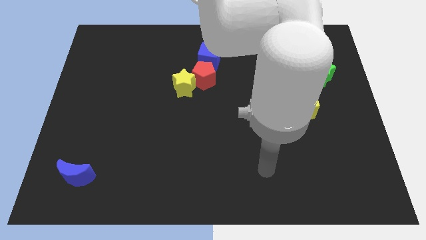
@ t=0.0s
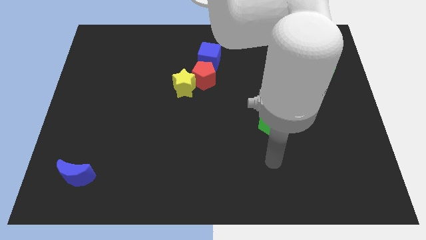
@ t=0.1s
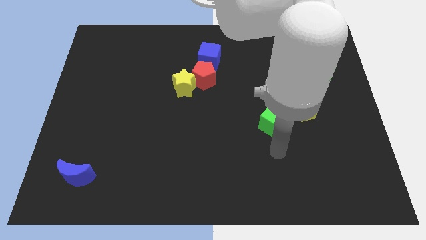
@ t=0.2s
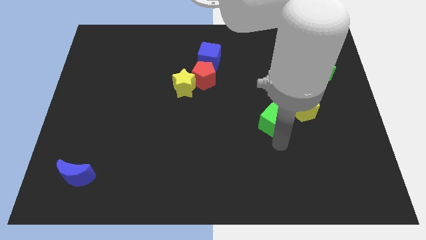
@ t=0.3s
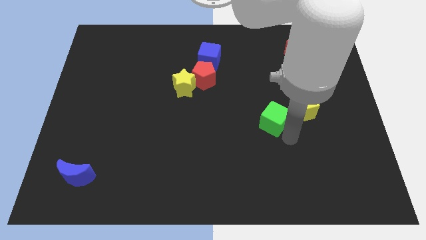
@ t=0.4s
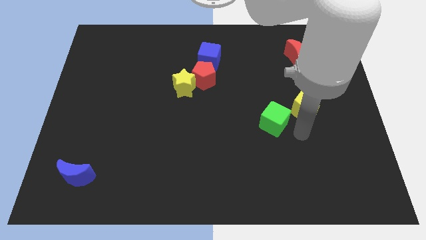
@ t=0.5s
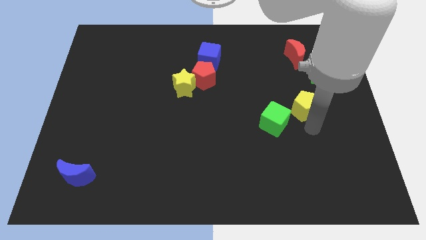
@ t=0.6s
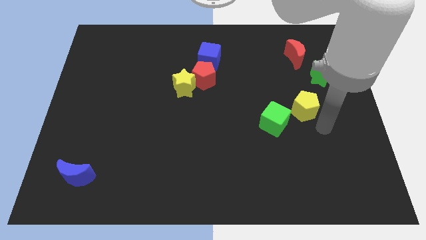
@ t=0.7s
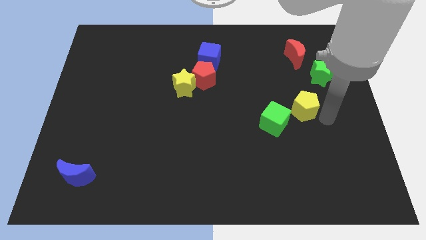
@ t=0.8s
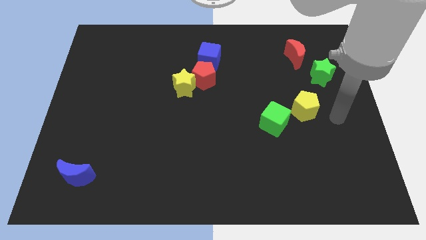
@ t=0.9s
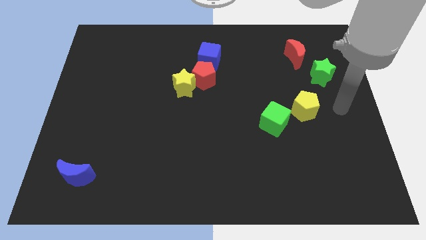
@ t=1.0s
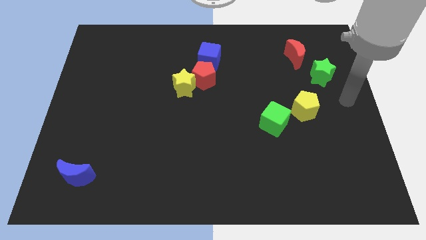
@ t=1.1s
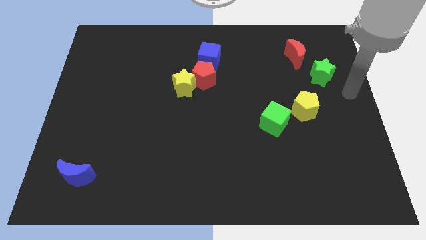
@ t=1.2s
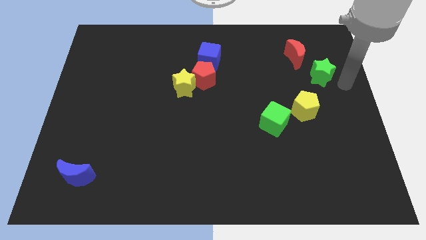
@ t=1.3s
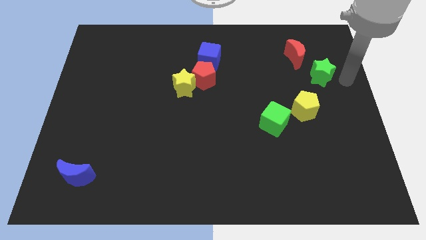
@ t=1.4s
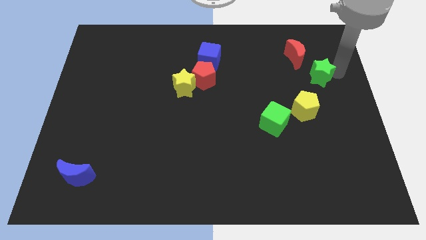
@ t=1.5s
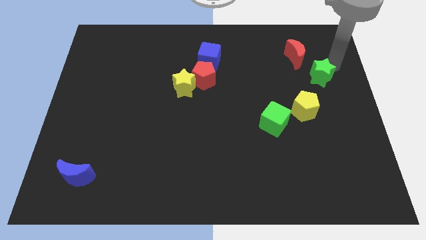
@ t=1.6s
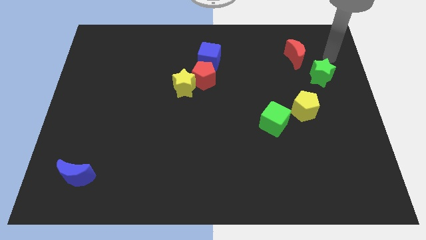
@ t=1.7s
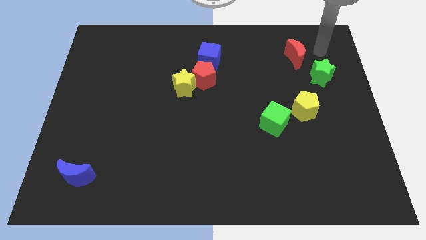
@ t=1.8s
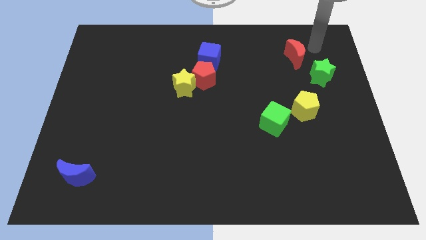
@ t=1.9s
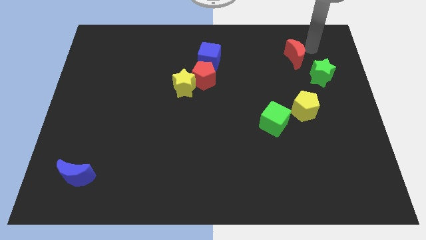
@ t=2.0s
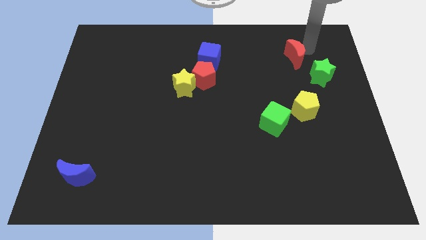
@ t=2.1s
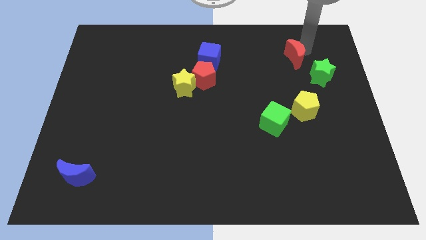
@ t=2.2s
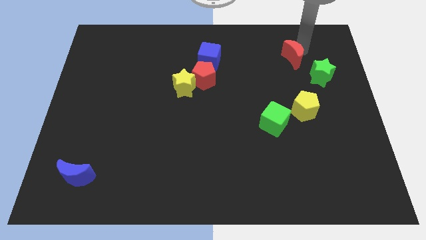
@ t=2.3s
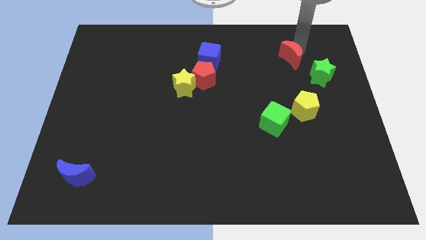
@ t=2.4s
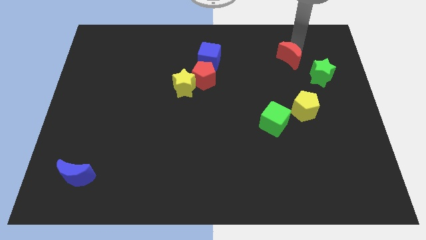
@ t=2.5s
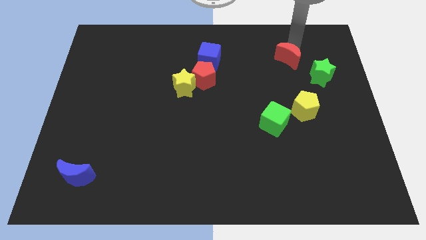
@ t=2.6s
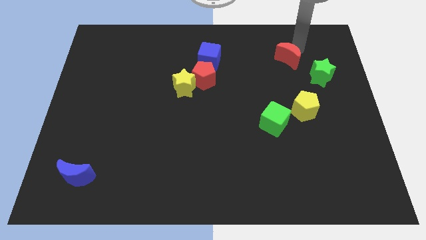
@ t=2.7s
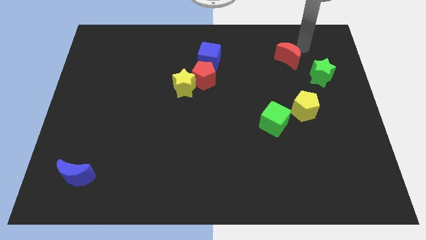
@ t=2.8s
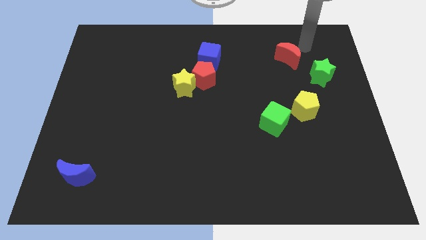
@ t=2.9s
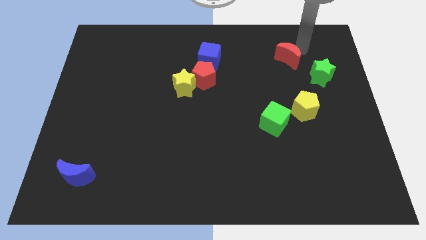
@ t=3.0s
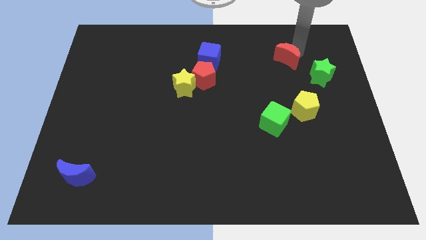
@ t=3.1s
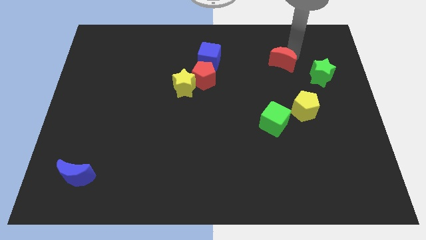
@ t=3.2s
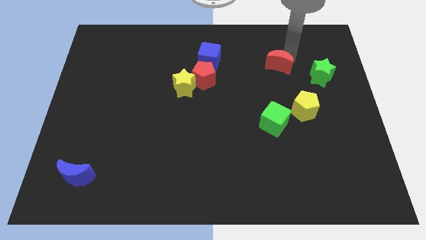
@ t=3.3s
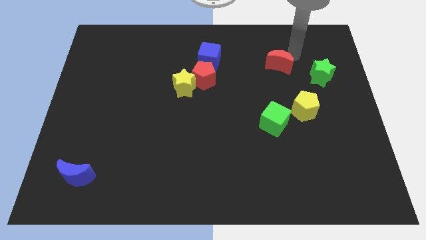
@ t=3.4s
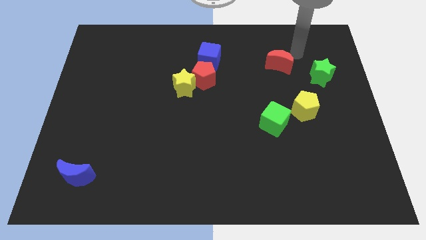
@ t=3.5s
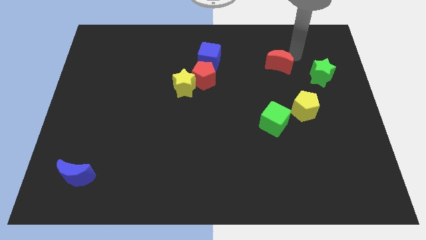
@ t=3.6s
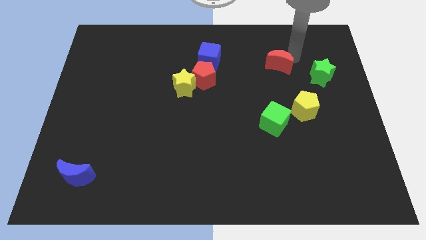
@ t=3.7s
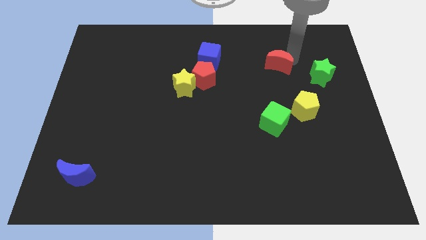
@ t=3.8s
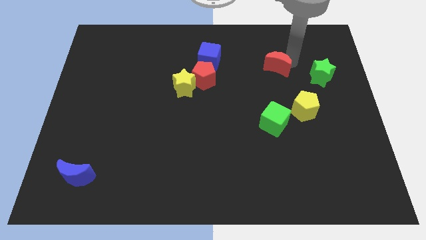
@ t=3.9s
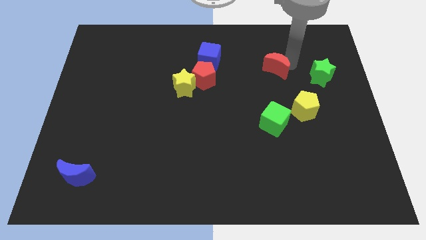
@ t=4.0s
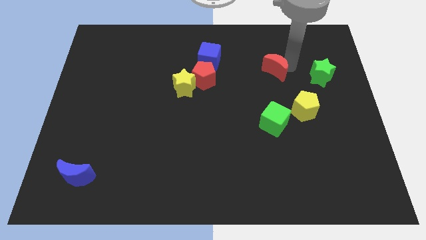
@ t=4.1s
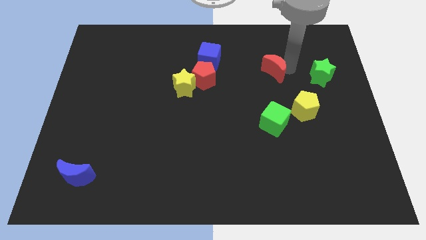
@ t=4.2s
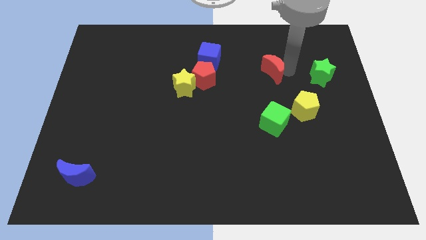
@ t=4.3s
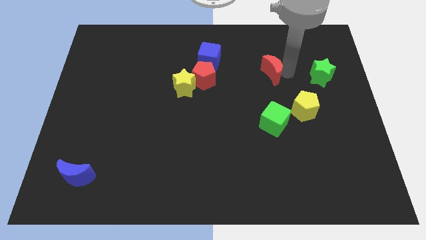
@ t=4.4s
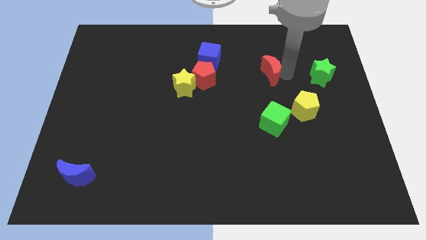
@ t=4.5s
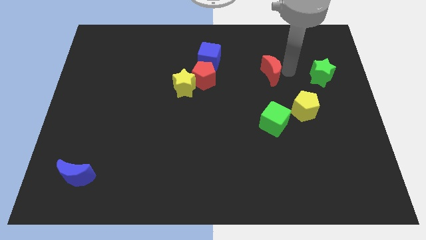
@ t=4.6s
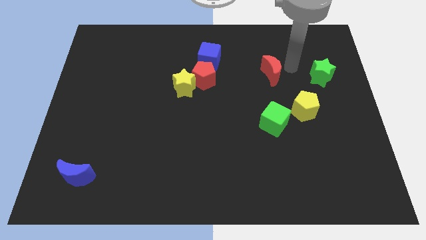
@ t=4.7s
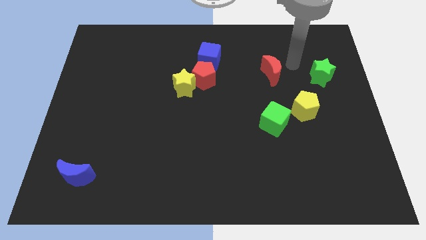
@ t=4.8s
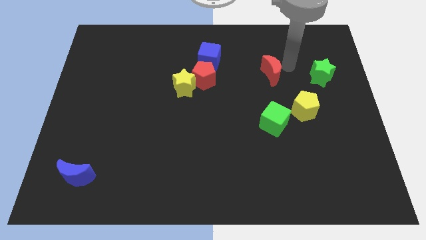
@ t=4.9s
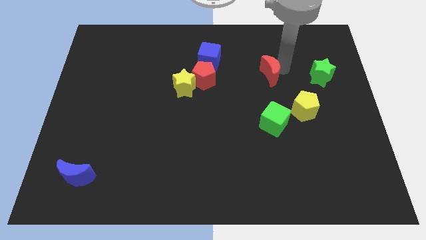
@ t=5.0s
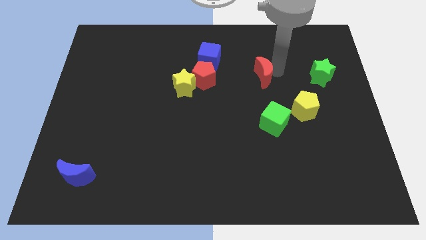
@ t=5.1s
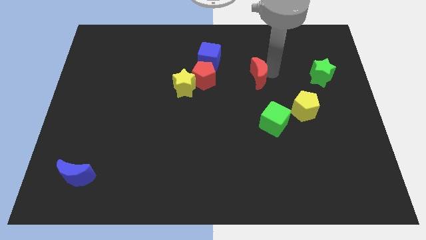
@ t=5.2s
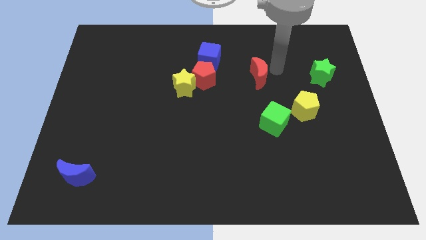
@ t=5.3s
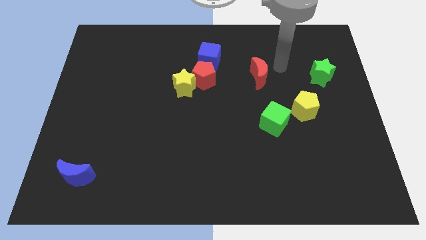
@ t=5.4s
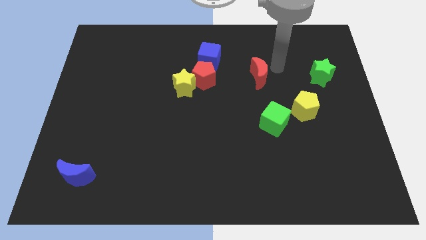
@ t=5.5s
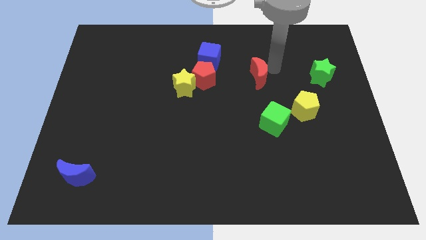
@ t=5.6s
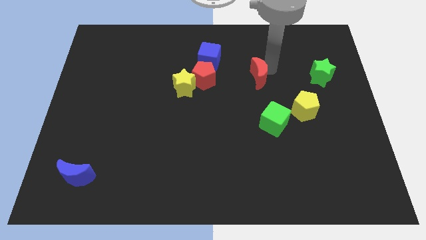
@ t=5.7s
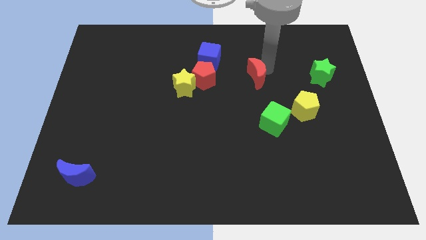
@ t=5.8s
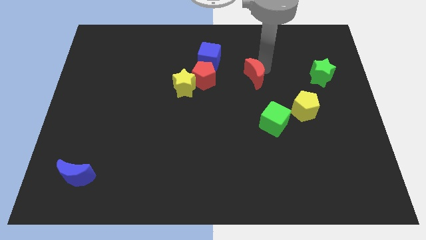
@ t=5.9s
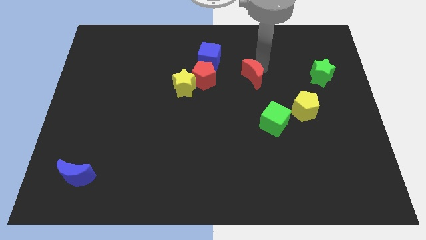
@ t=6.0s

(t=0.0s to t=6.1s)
push the red moon to the center of the board

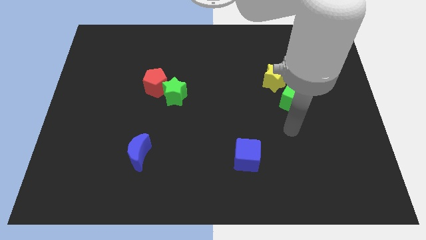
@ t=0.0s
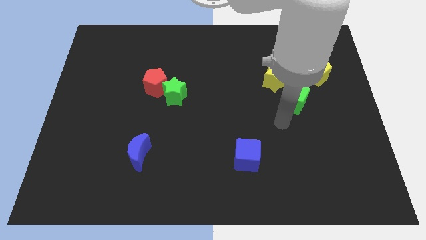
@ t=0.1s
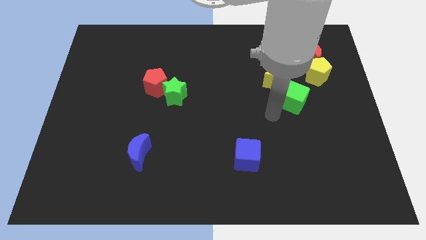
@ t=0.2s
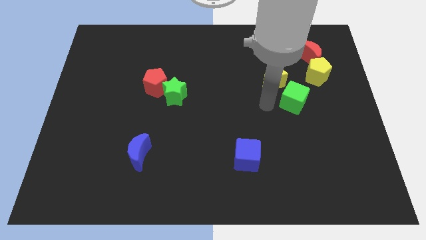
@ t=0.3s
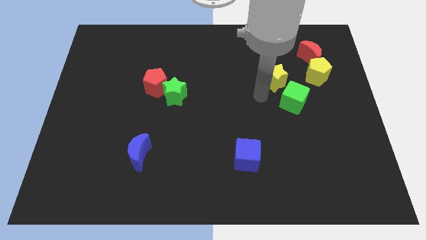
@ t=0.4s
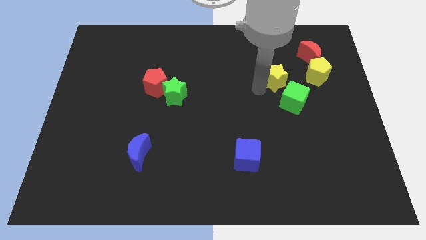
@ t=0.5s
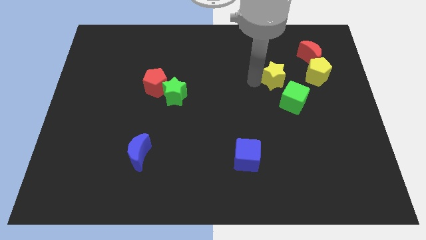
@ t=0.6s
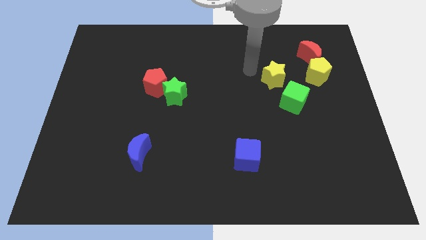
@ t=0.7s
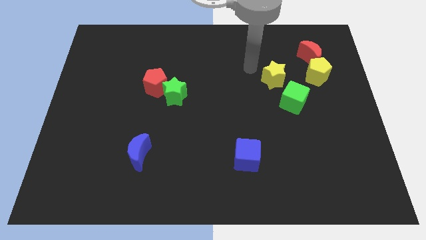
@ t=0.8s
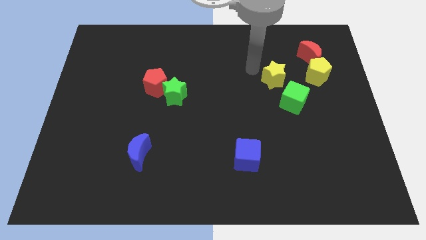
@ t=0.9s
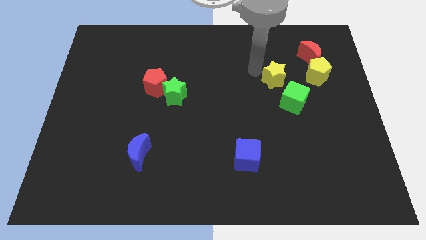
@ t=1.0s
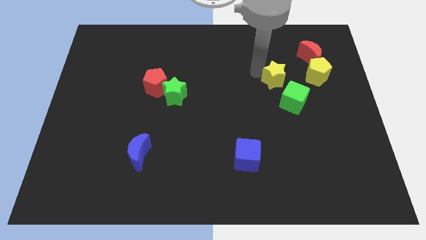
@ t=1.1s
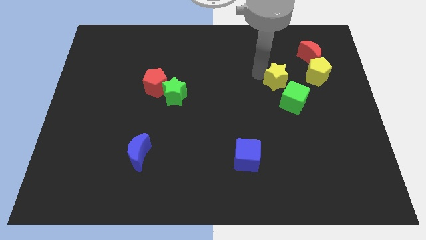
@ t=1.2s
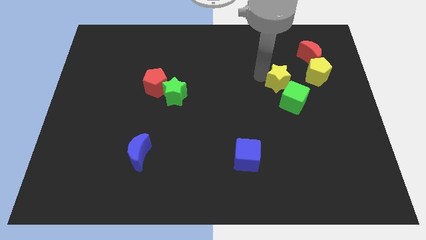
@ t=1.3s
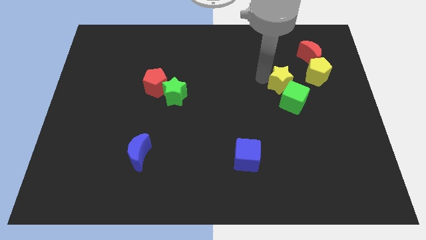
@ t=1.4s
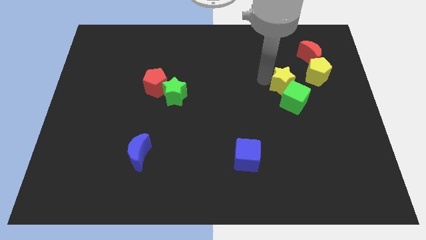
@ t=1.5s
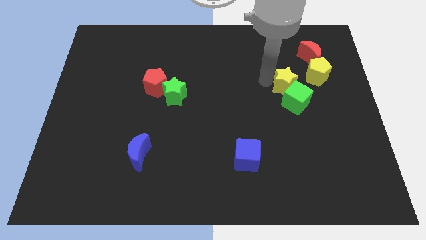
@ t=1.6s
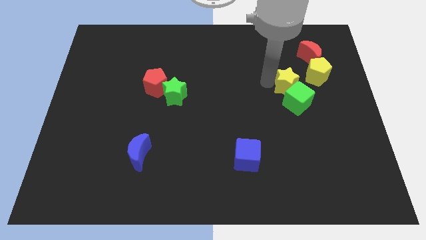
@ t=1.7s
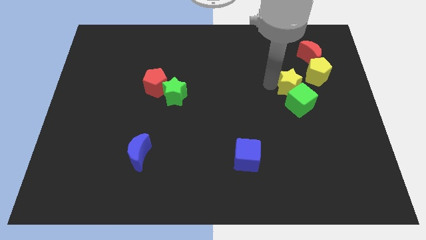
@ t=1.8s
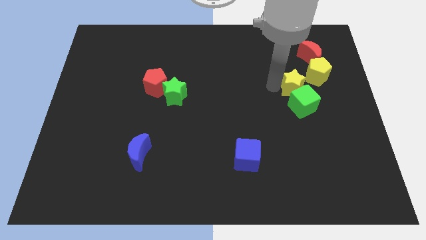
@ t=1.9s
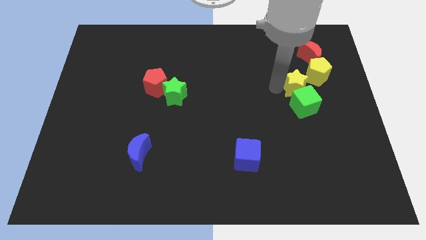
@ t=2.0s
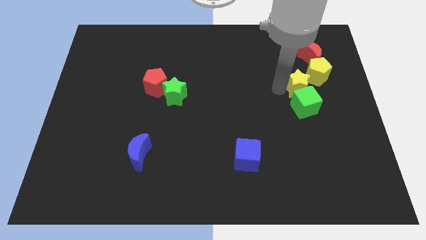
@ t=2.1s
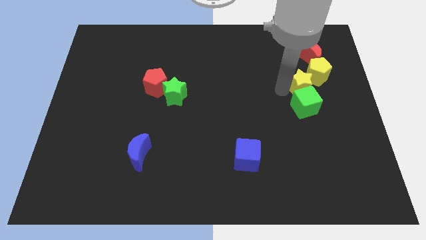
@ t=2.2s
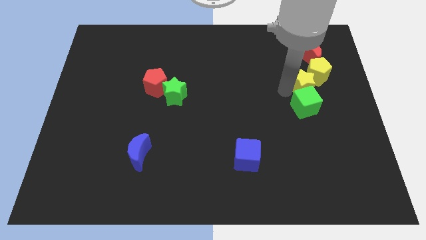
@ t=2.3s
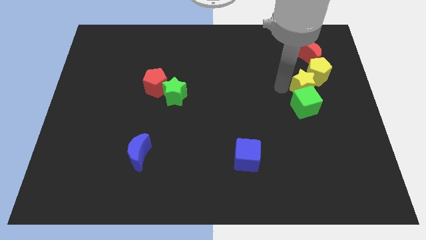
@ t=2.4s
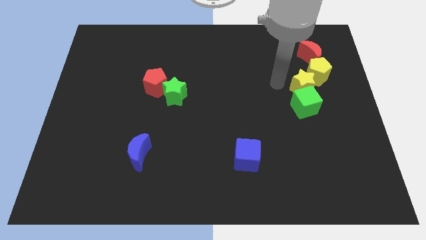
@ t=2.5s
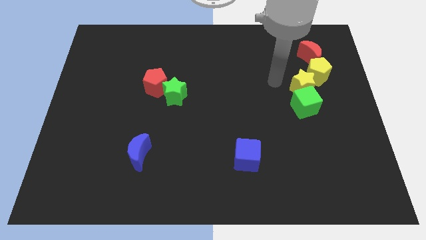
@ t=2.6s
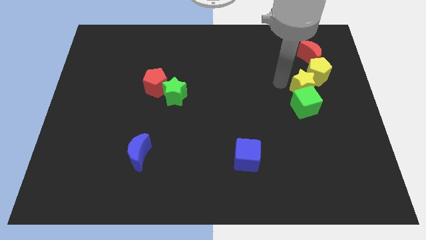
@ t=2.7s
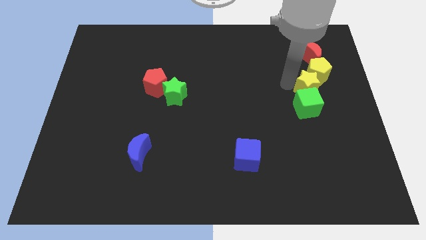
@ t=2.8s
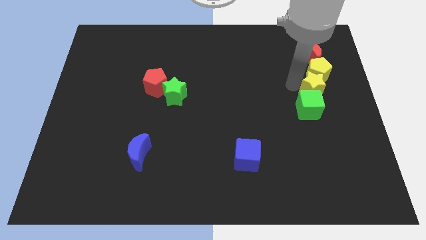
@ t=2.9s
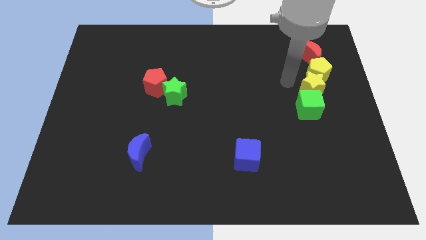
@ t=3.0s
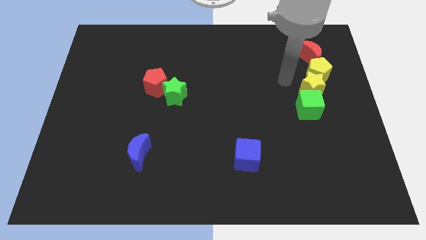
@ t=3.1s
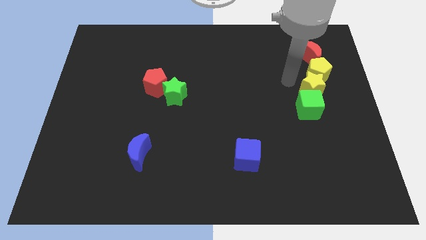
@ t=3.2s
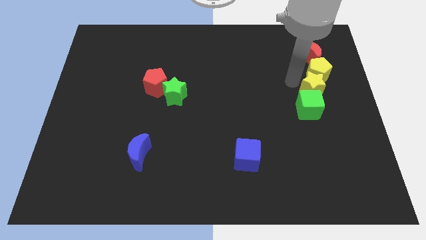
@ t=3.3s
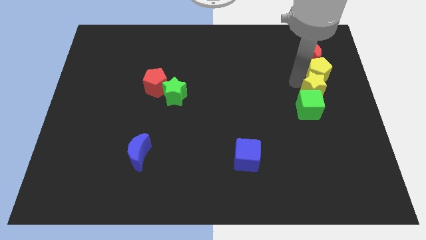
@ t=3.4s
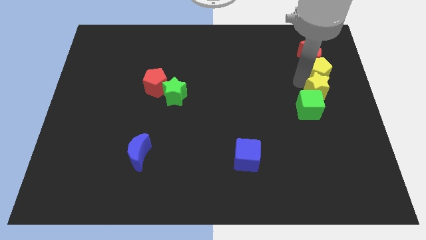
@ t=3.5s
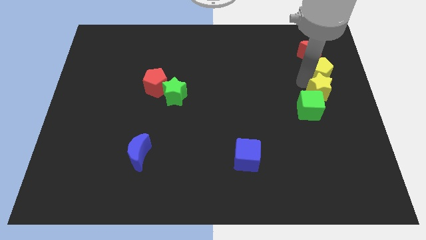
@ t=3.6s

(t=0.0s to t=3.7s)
put the yellow star to the center right
